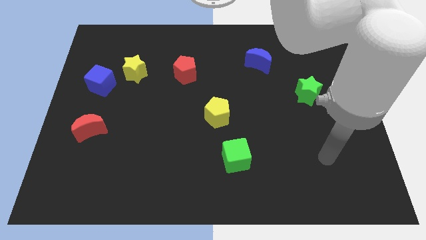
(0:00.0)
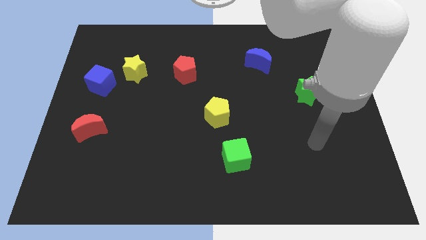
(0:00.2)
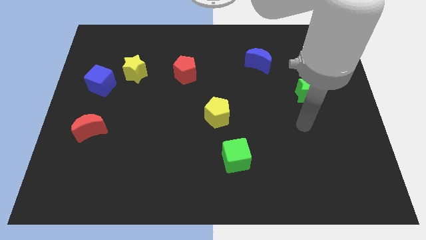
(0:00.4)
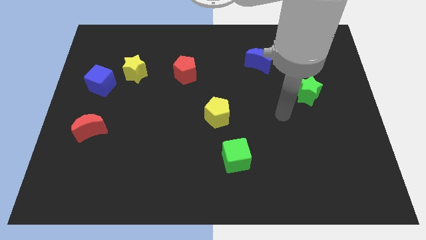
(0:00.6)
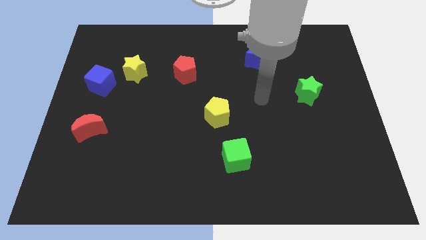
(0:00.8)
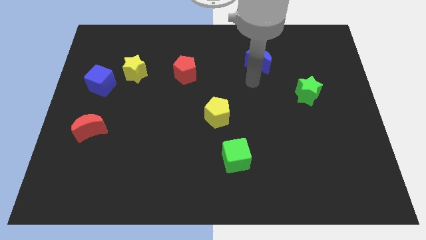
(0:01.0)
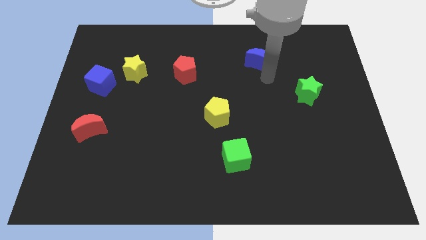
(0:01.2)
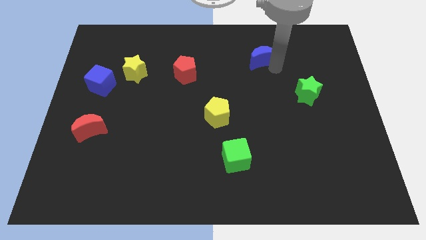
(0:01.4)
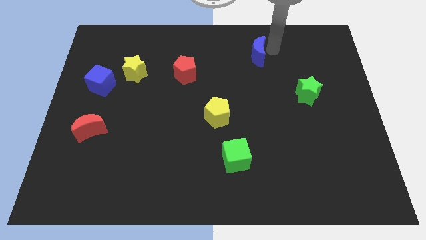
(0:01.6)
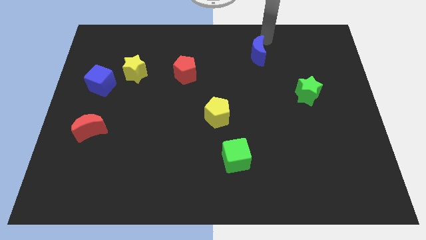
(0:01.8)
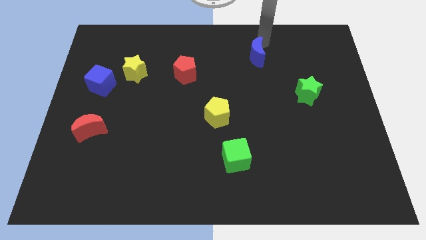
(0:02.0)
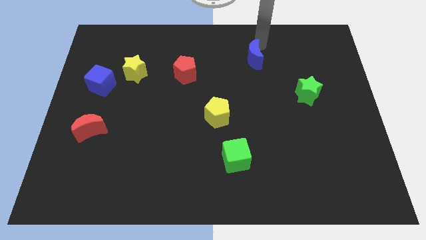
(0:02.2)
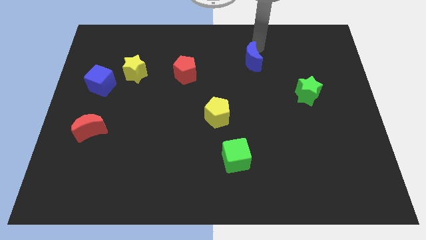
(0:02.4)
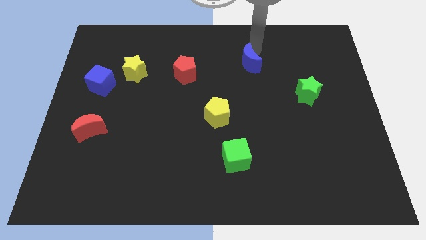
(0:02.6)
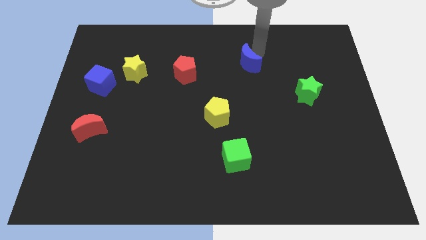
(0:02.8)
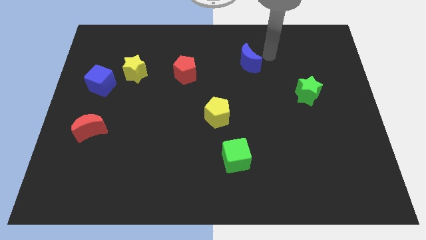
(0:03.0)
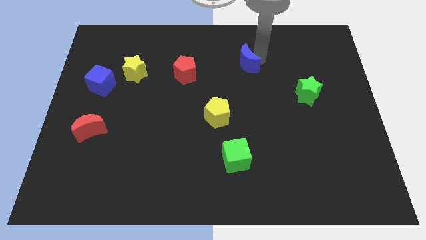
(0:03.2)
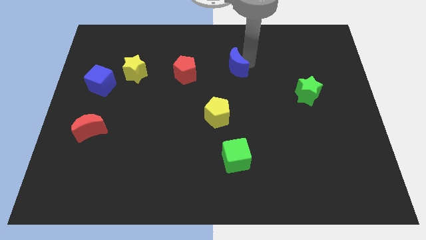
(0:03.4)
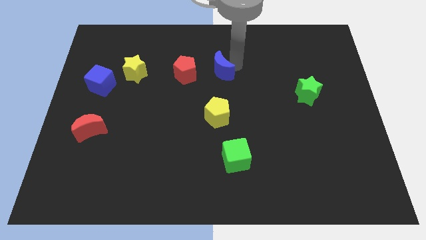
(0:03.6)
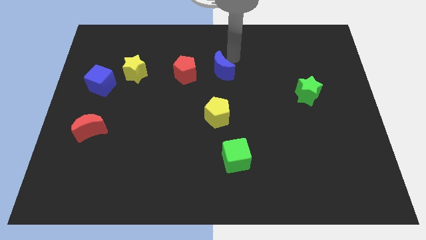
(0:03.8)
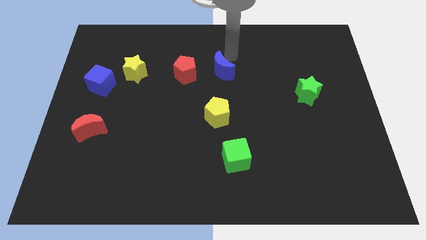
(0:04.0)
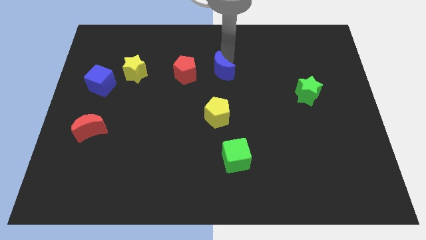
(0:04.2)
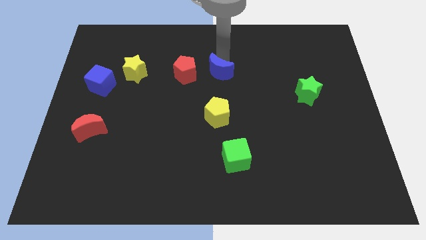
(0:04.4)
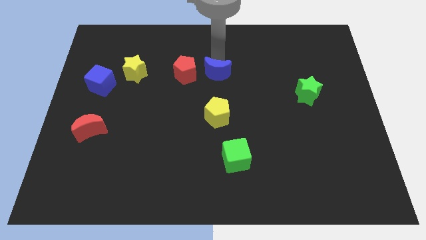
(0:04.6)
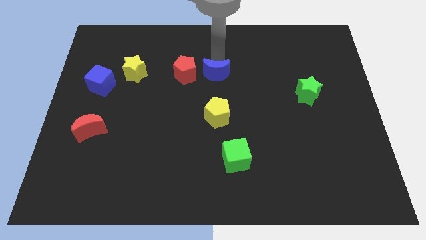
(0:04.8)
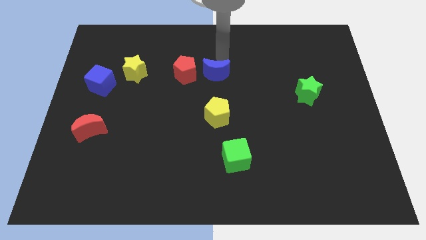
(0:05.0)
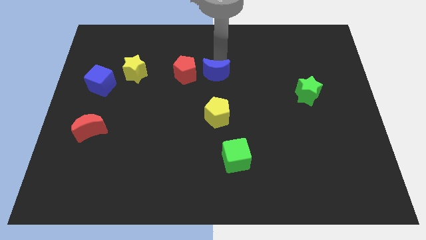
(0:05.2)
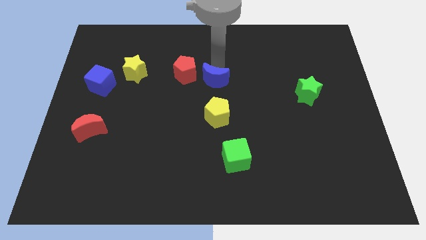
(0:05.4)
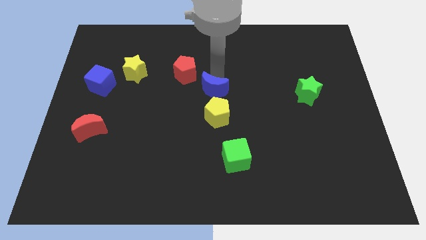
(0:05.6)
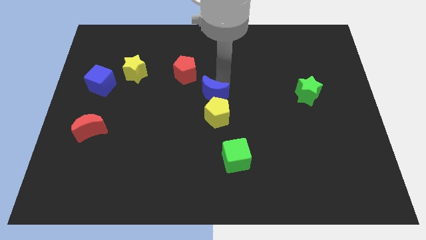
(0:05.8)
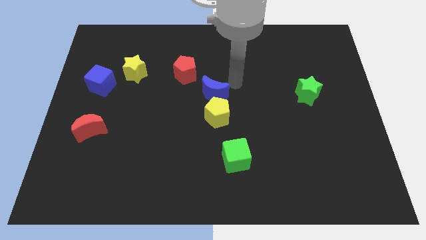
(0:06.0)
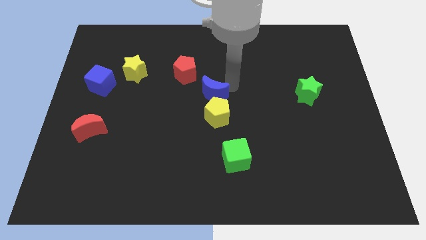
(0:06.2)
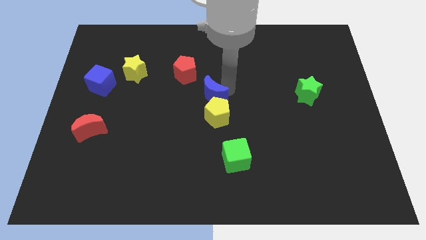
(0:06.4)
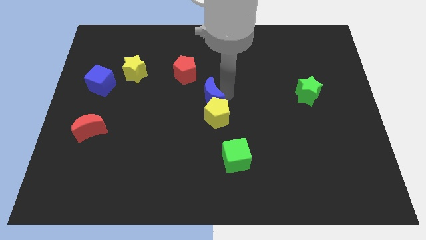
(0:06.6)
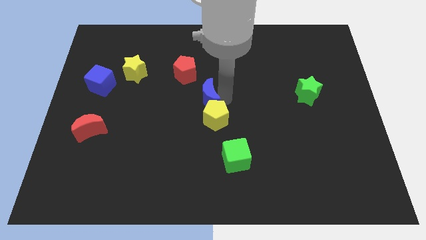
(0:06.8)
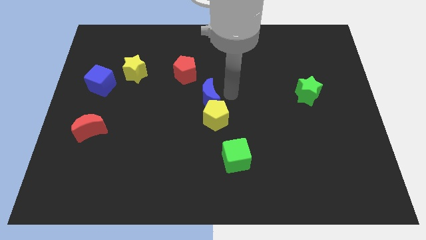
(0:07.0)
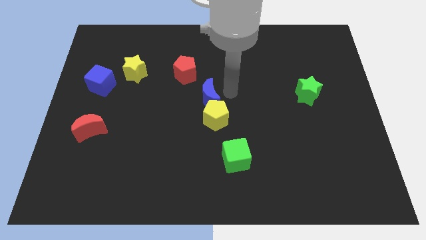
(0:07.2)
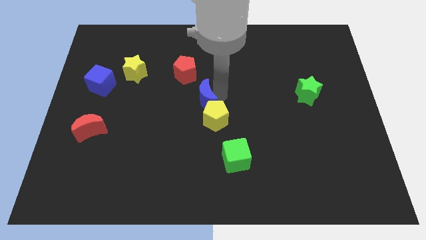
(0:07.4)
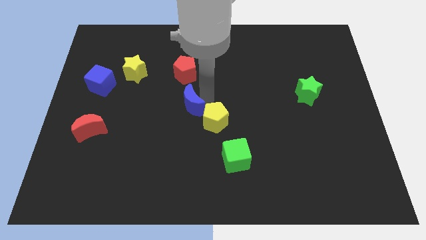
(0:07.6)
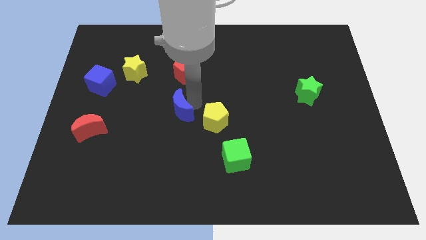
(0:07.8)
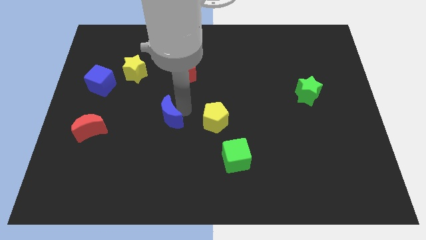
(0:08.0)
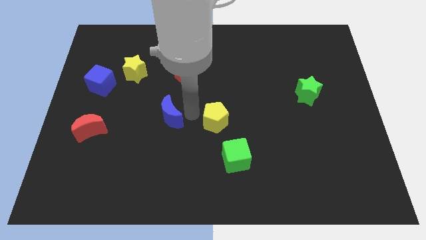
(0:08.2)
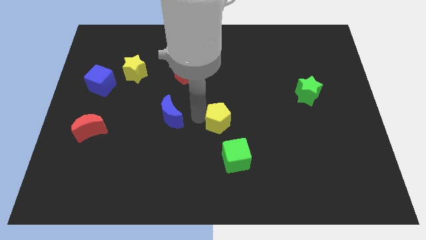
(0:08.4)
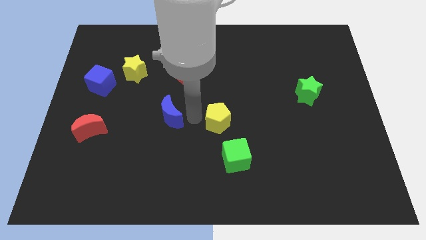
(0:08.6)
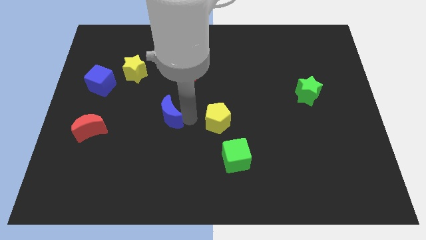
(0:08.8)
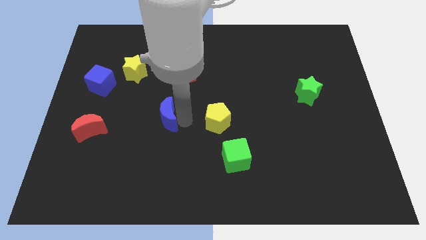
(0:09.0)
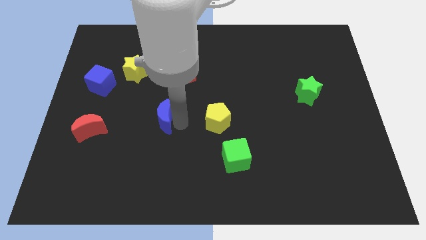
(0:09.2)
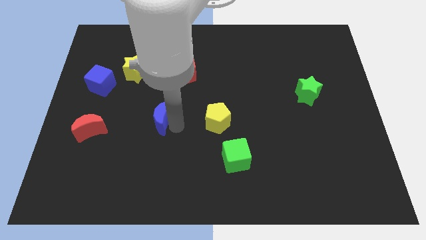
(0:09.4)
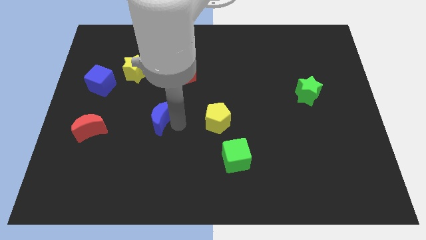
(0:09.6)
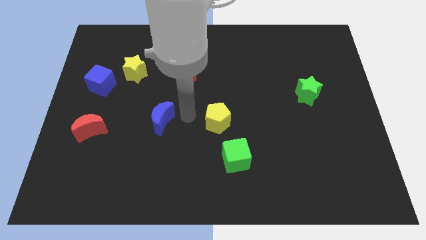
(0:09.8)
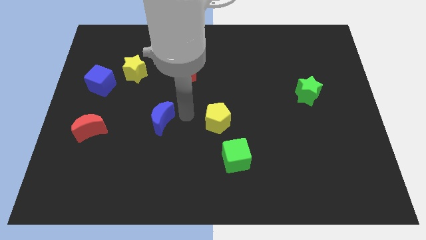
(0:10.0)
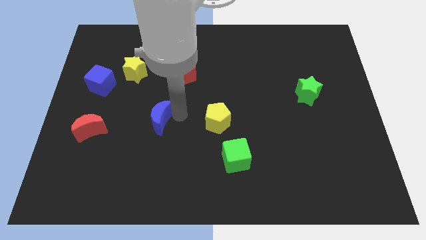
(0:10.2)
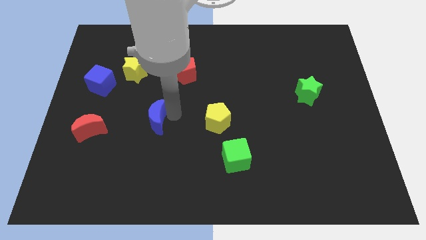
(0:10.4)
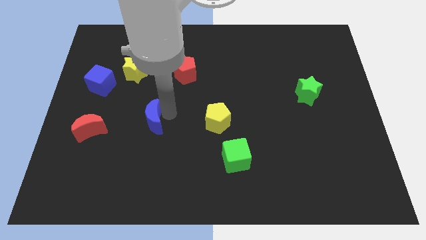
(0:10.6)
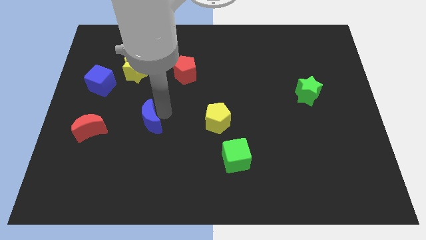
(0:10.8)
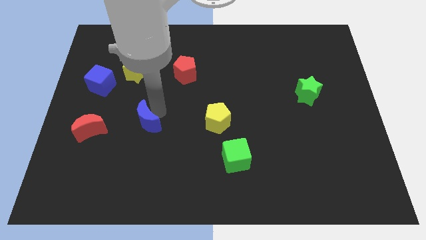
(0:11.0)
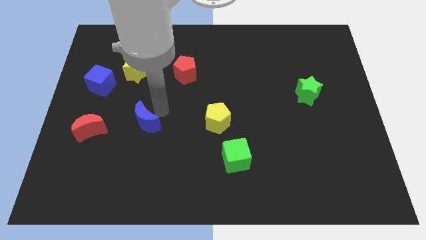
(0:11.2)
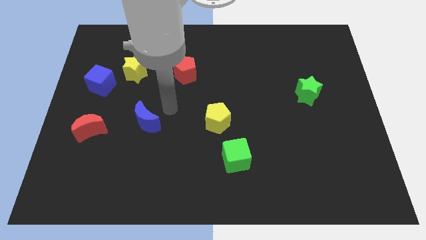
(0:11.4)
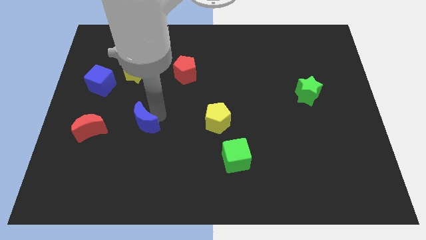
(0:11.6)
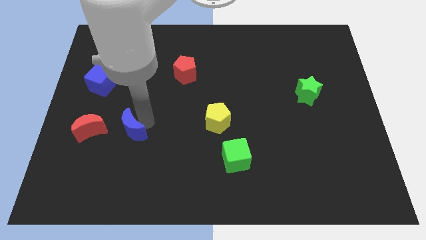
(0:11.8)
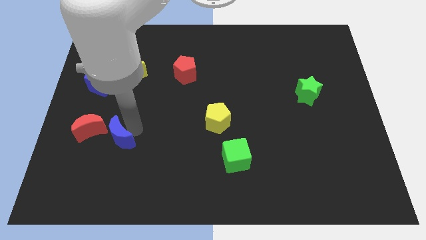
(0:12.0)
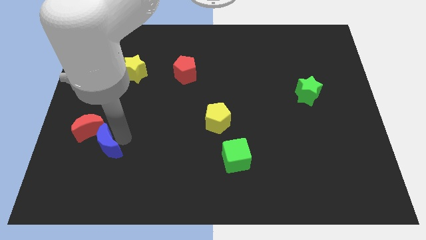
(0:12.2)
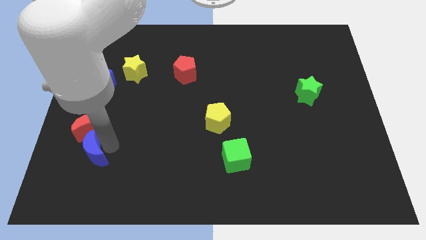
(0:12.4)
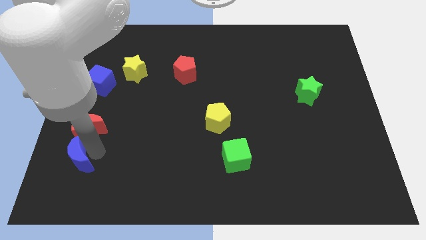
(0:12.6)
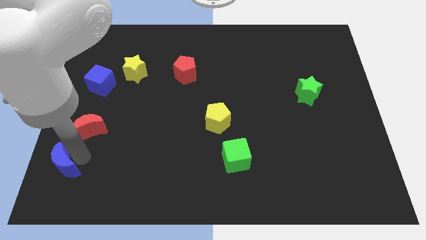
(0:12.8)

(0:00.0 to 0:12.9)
move the blue moon to the bottom left corner

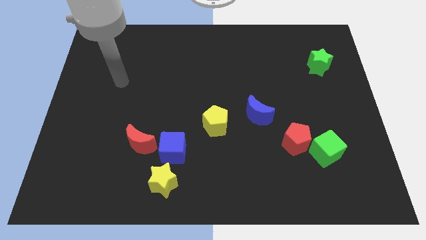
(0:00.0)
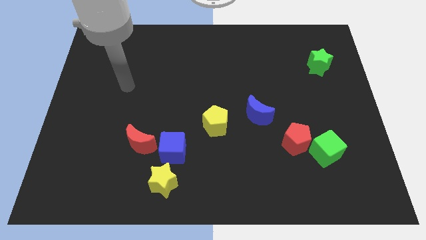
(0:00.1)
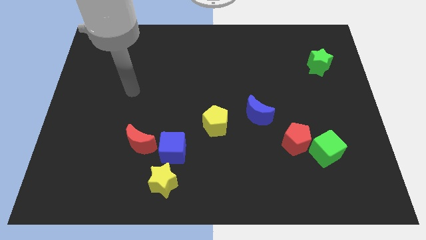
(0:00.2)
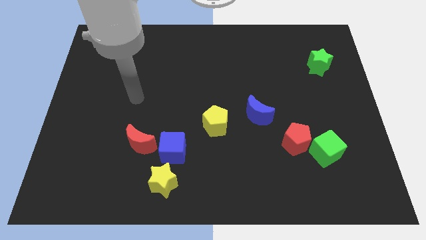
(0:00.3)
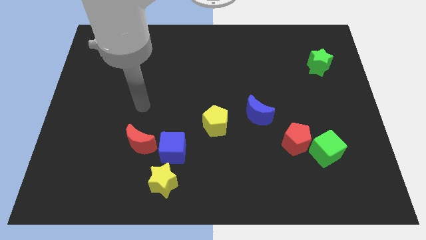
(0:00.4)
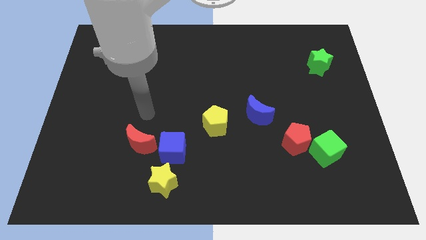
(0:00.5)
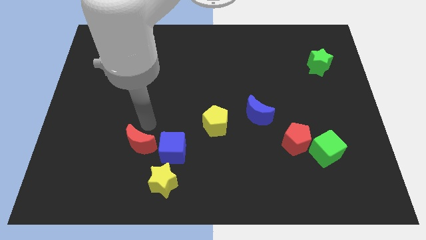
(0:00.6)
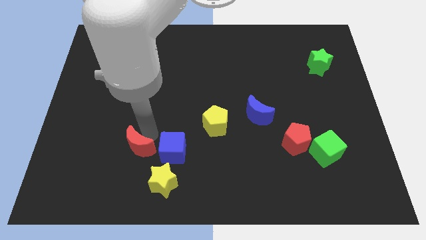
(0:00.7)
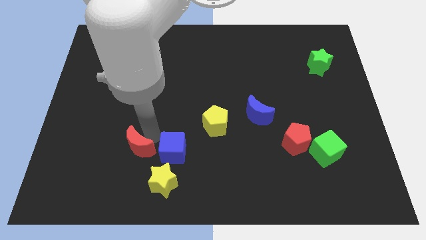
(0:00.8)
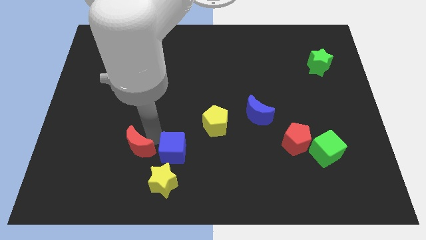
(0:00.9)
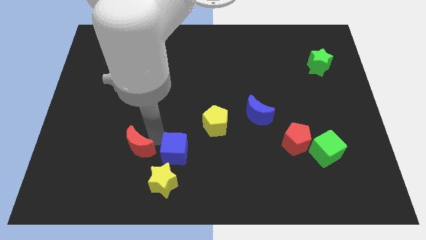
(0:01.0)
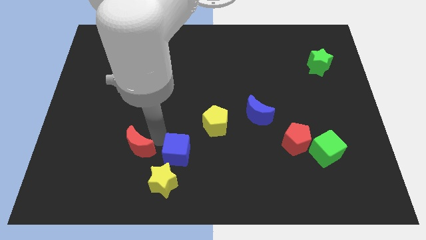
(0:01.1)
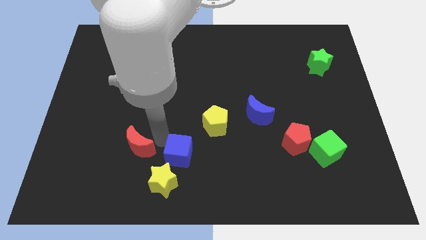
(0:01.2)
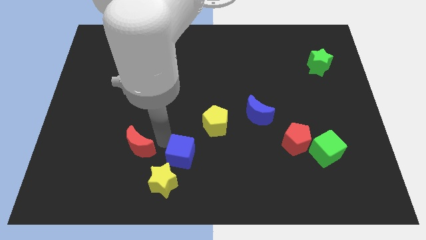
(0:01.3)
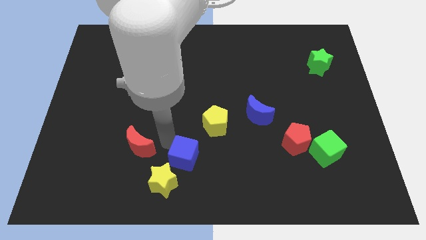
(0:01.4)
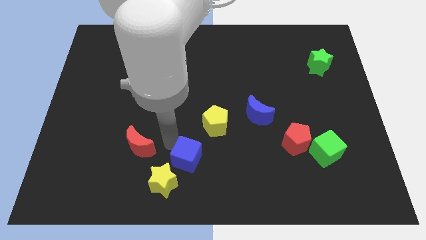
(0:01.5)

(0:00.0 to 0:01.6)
put the blue cube to the bottom
